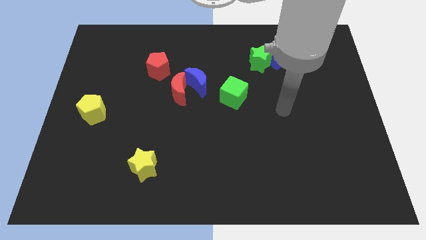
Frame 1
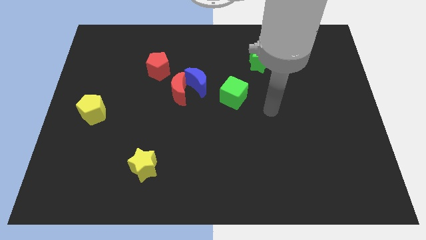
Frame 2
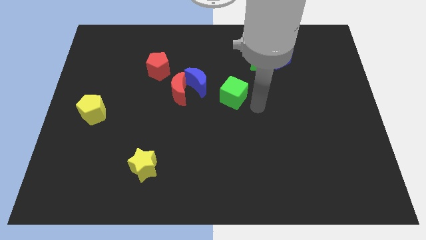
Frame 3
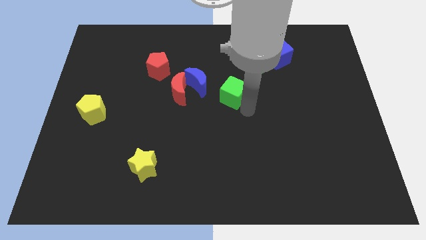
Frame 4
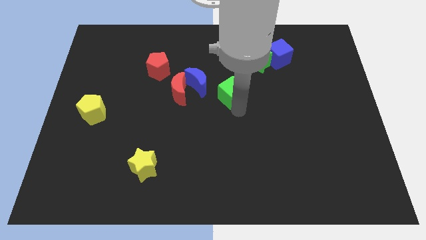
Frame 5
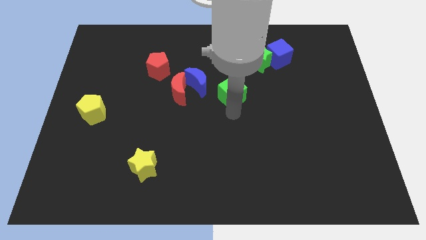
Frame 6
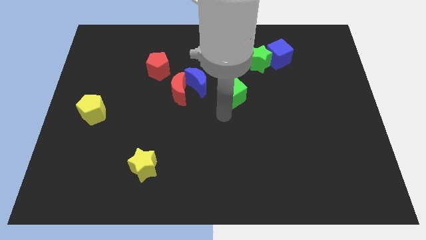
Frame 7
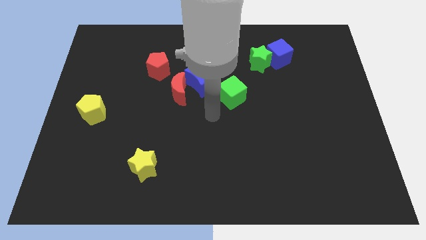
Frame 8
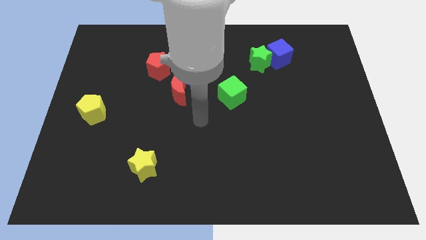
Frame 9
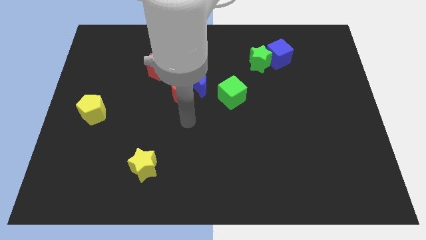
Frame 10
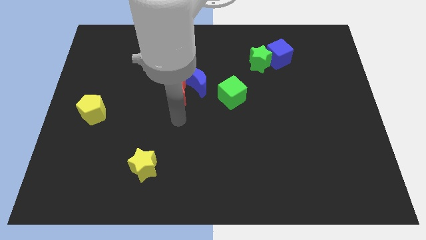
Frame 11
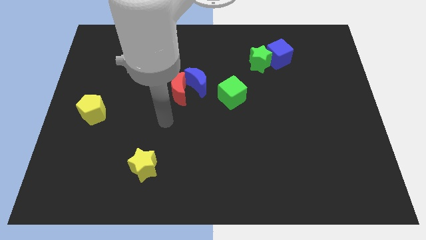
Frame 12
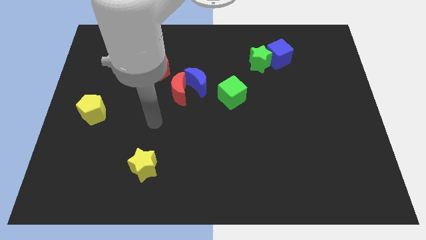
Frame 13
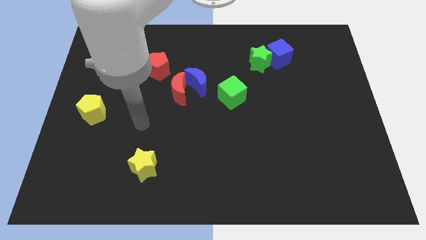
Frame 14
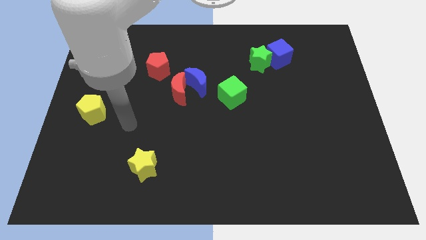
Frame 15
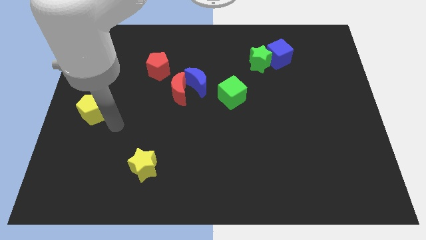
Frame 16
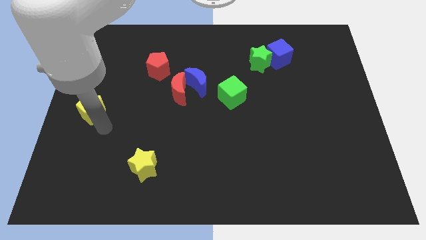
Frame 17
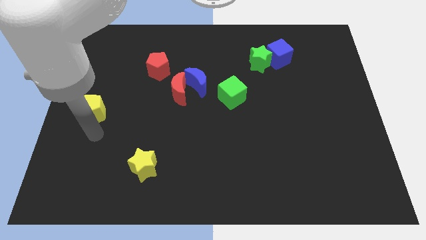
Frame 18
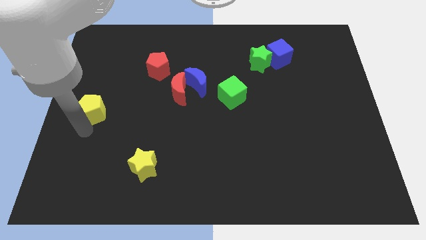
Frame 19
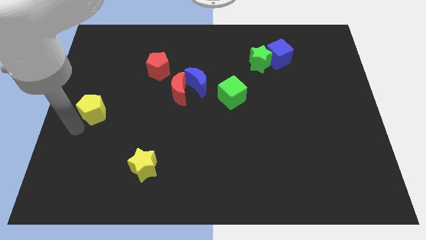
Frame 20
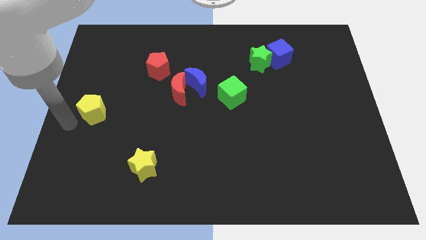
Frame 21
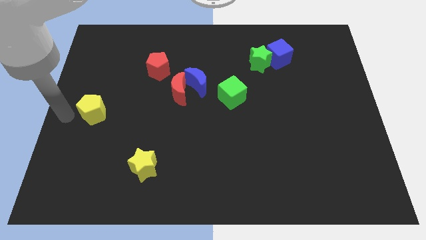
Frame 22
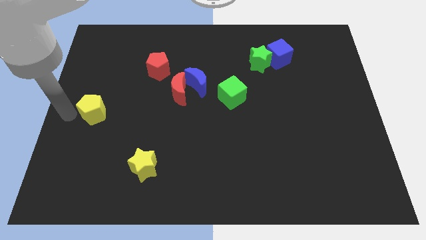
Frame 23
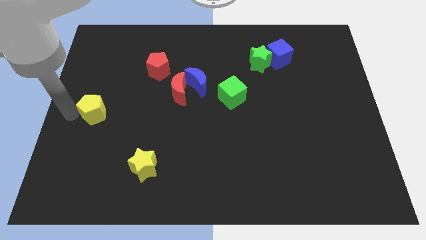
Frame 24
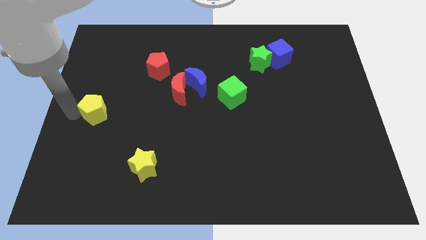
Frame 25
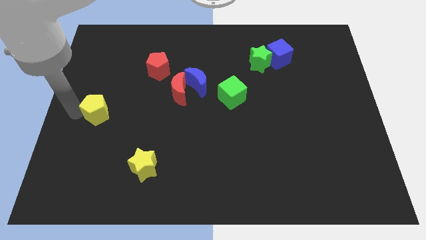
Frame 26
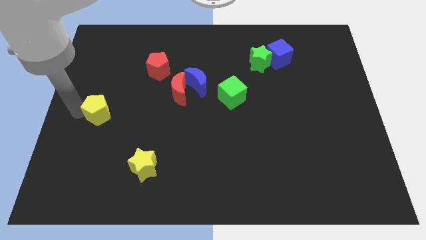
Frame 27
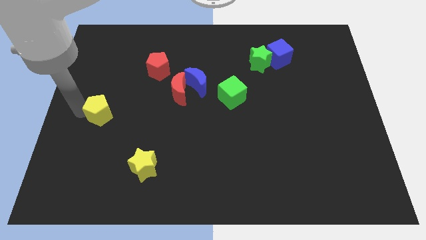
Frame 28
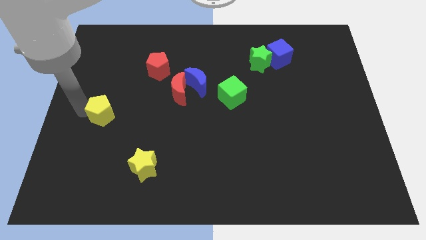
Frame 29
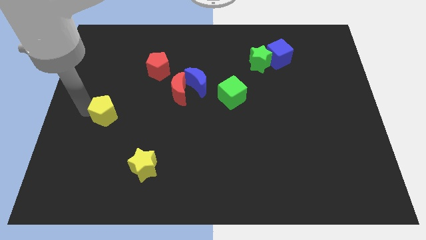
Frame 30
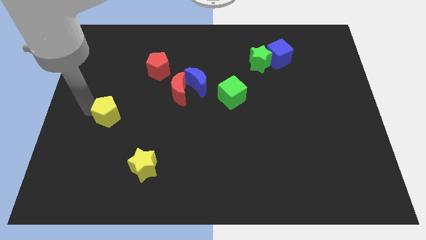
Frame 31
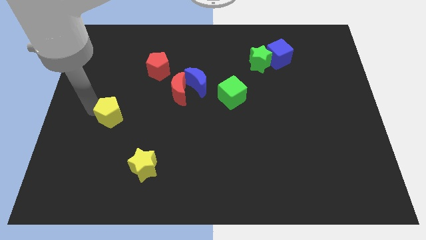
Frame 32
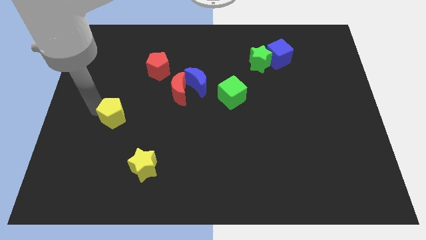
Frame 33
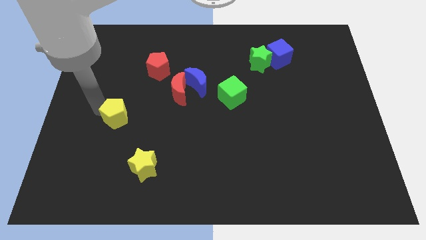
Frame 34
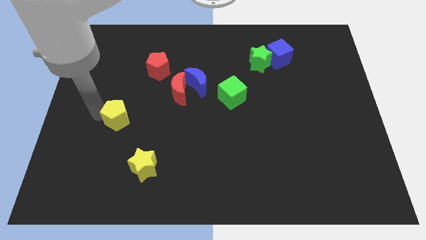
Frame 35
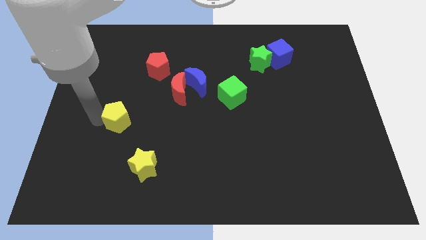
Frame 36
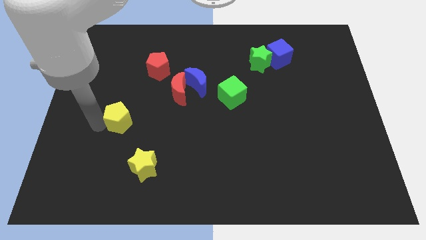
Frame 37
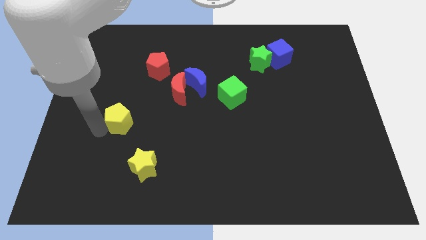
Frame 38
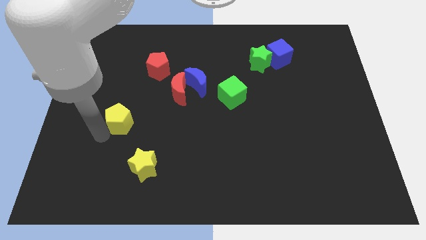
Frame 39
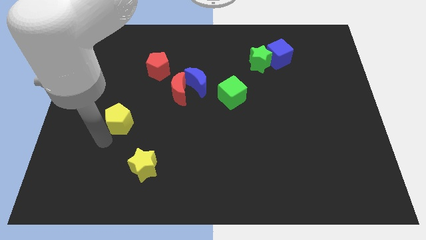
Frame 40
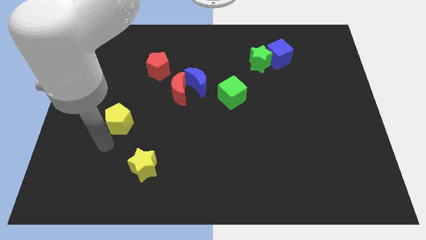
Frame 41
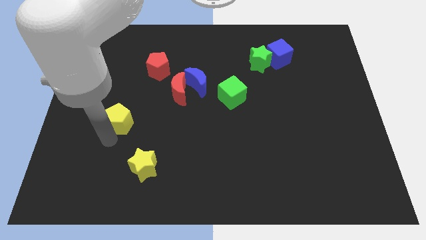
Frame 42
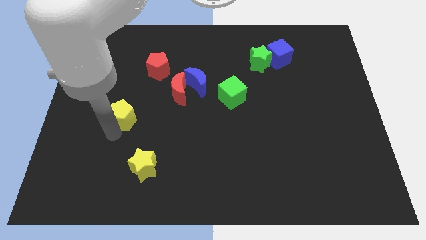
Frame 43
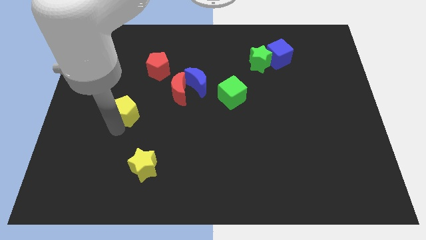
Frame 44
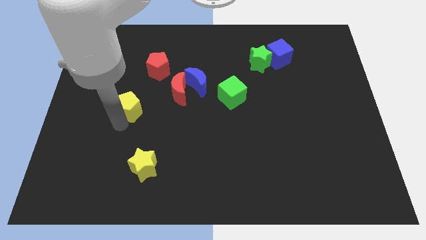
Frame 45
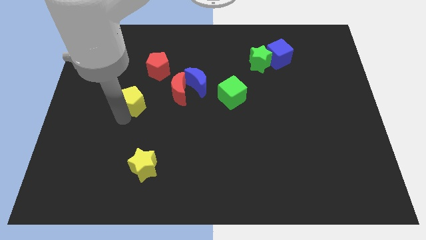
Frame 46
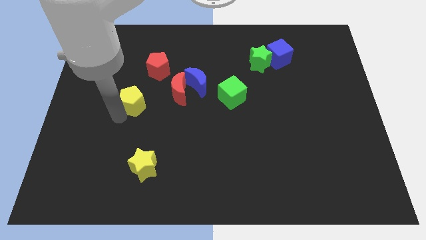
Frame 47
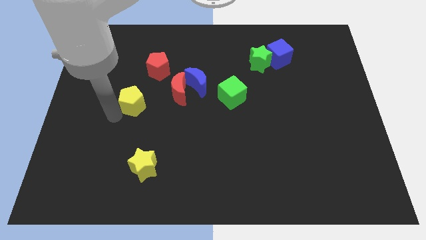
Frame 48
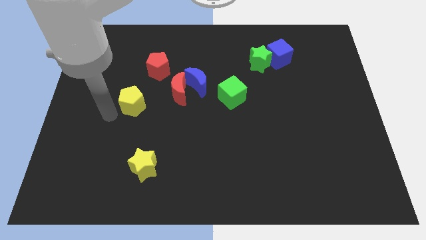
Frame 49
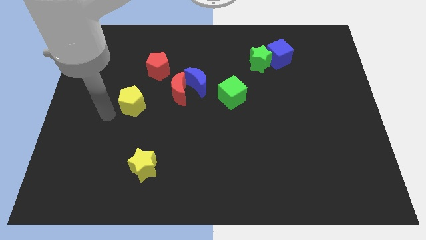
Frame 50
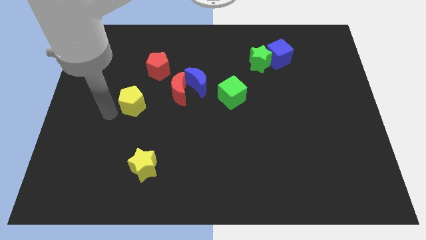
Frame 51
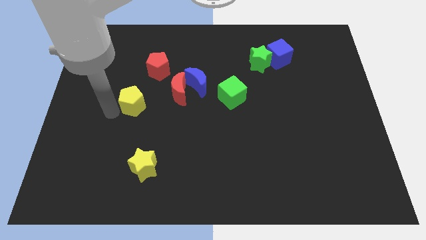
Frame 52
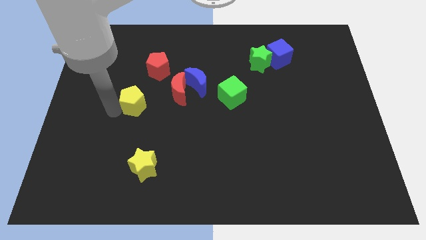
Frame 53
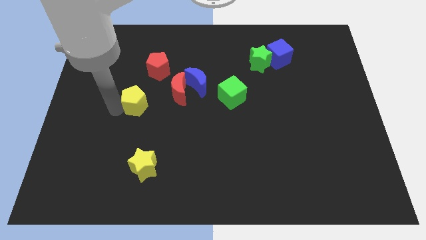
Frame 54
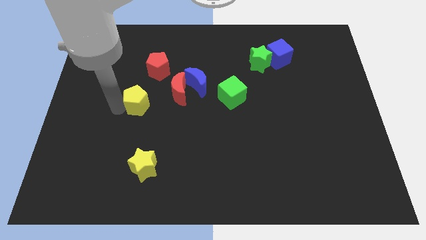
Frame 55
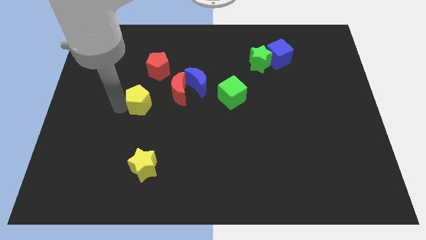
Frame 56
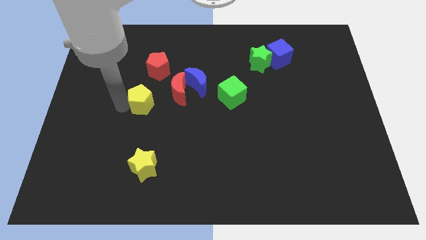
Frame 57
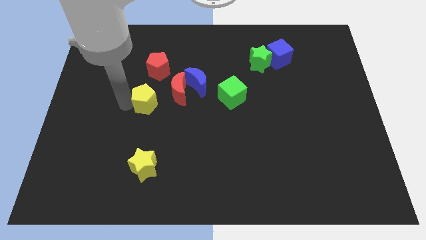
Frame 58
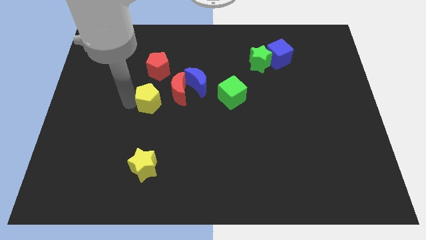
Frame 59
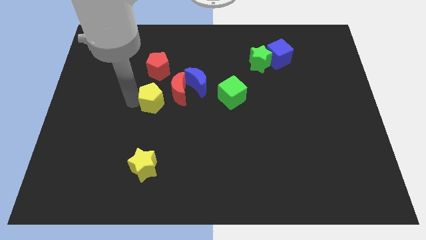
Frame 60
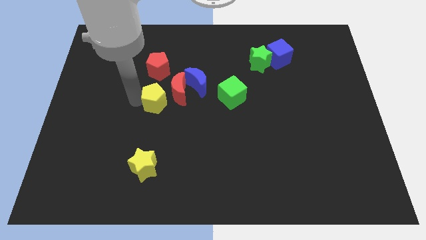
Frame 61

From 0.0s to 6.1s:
put the yellow pentagon to the red moon

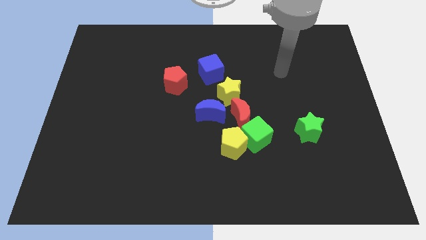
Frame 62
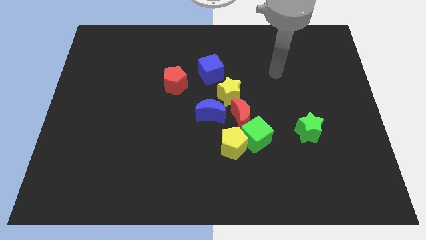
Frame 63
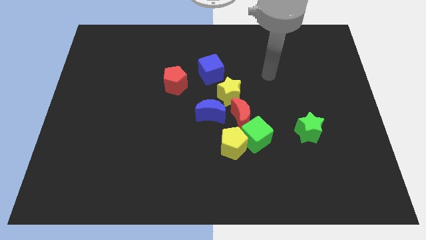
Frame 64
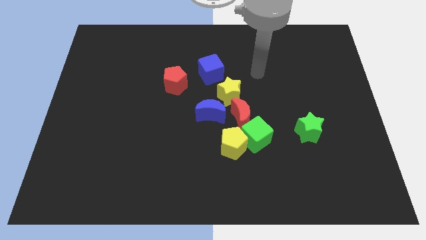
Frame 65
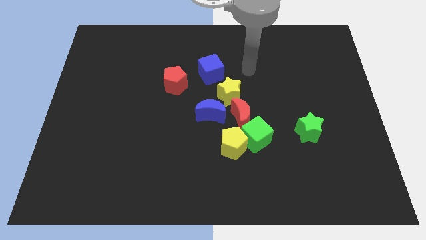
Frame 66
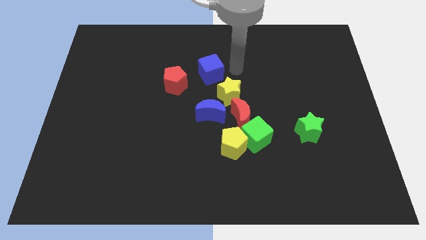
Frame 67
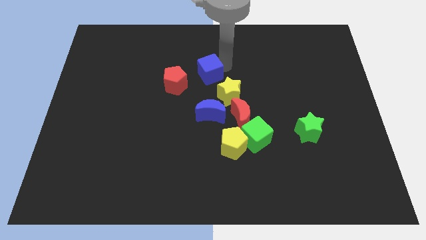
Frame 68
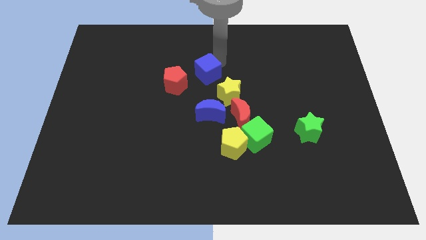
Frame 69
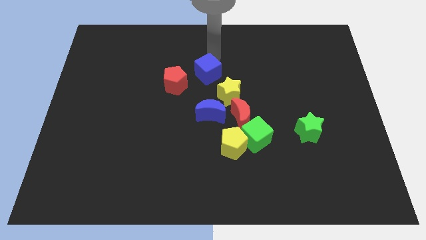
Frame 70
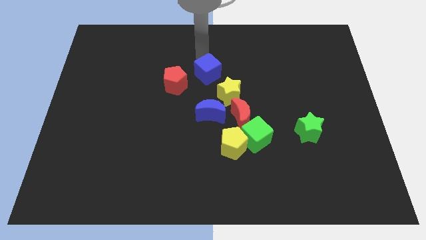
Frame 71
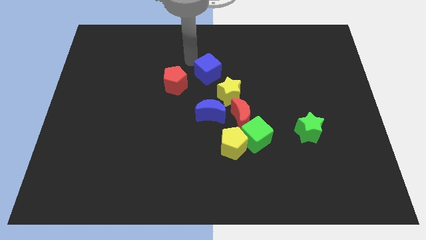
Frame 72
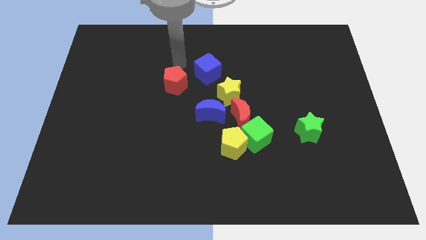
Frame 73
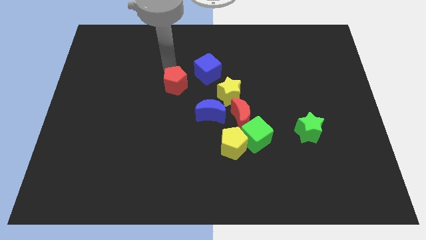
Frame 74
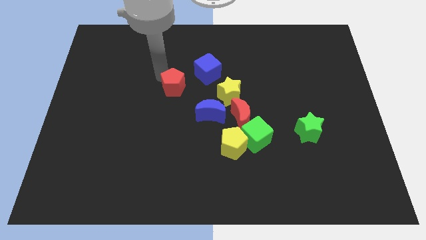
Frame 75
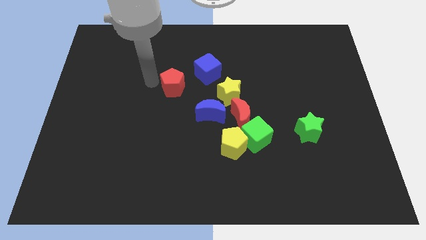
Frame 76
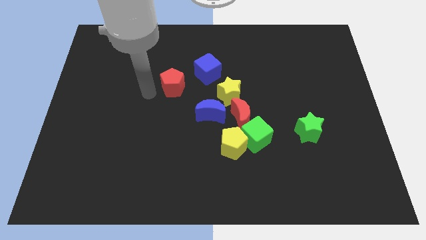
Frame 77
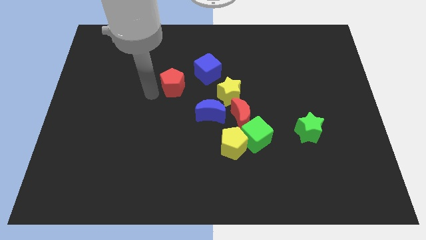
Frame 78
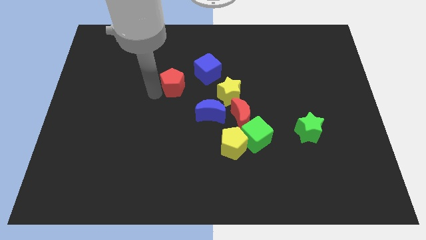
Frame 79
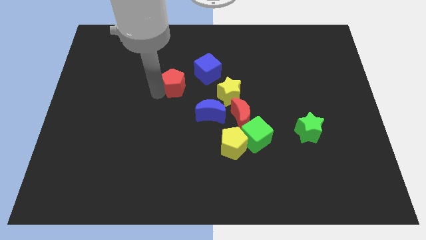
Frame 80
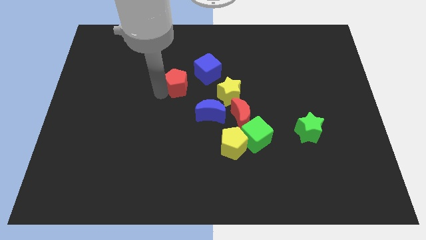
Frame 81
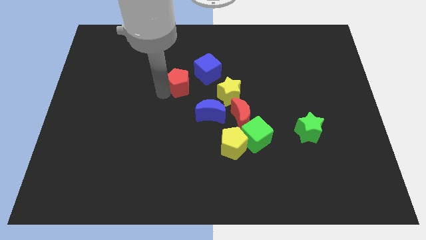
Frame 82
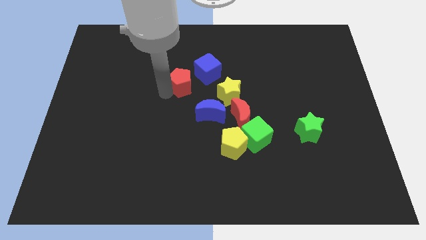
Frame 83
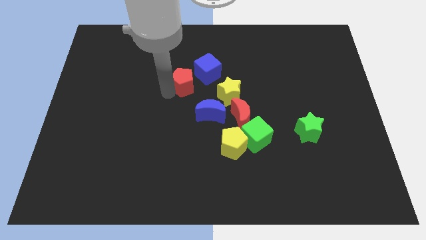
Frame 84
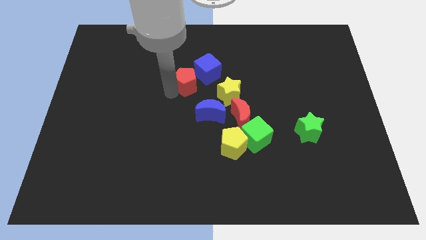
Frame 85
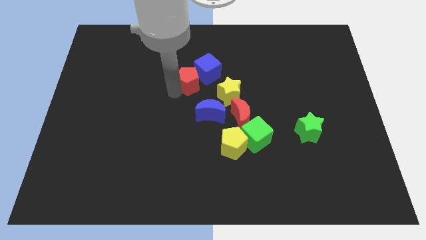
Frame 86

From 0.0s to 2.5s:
slide the red pentagon to the blue cube
